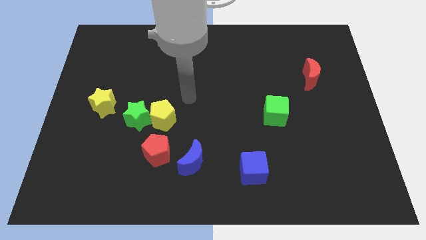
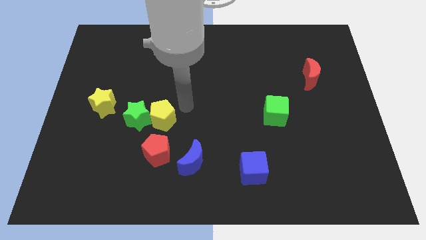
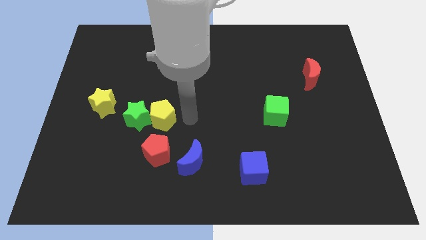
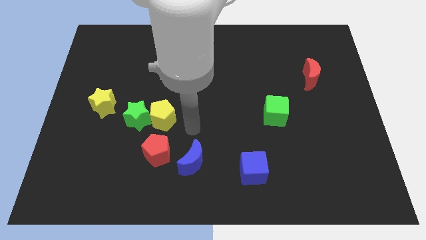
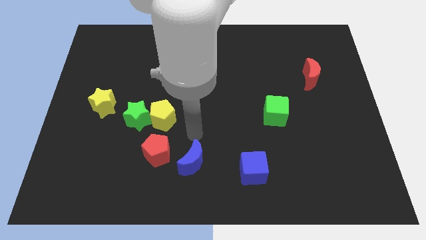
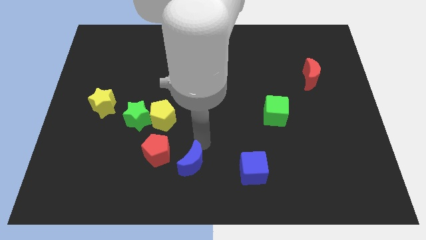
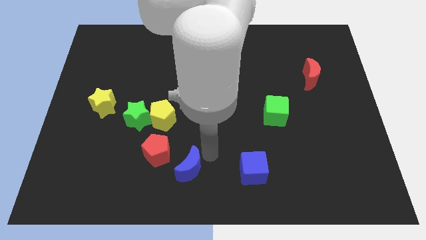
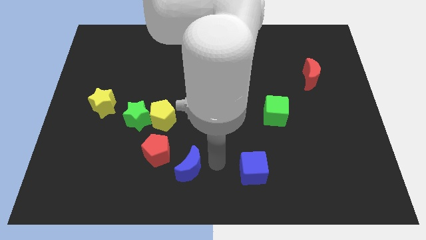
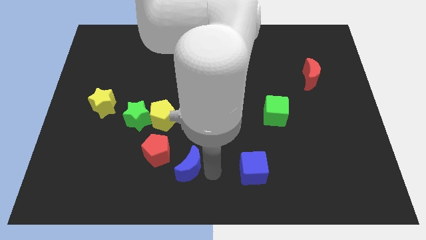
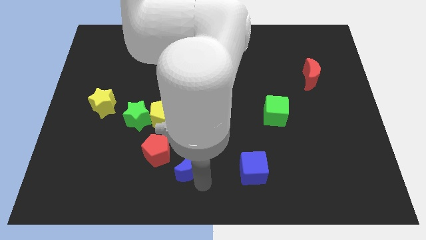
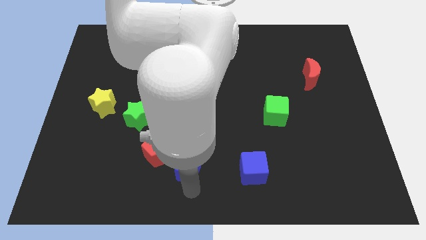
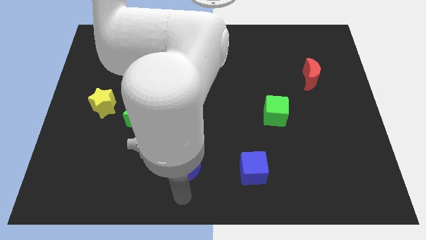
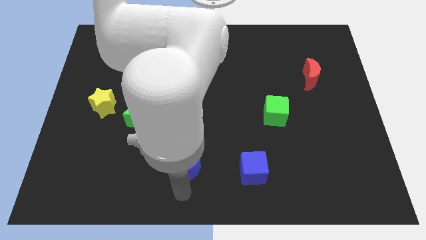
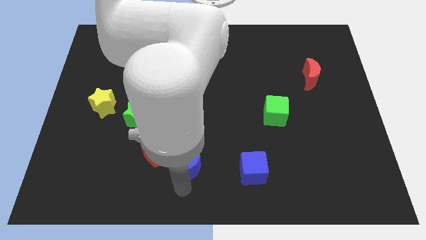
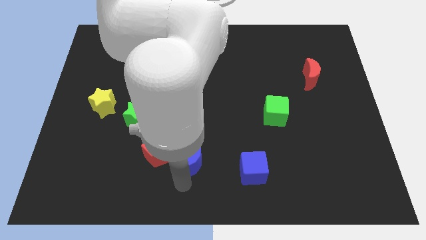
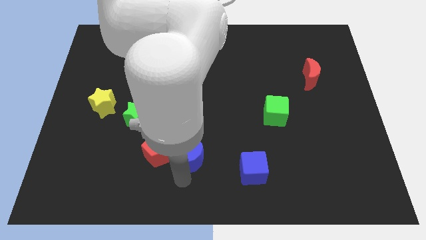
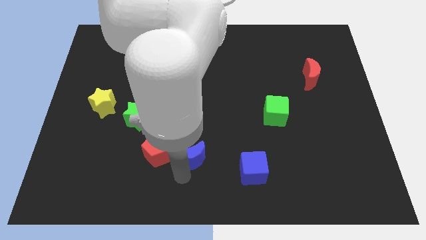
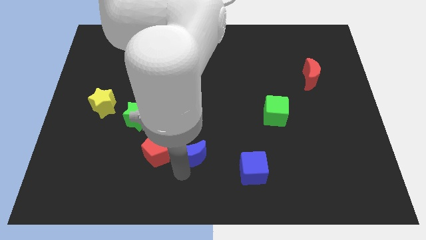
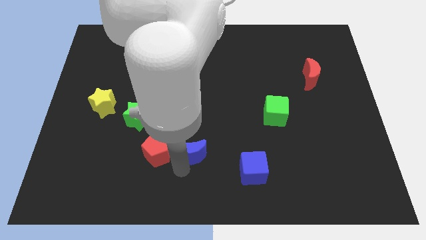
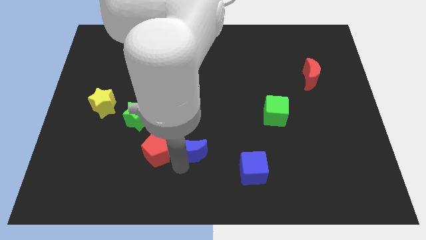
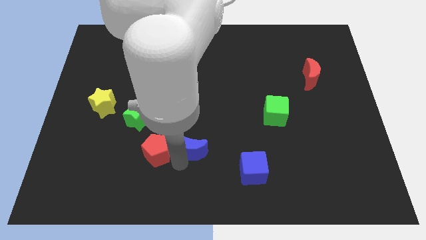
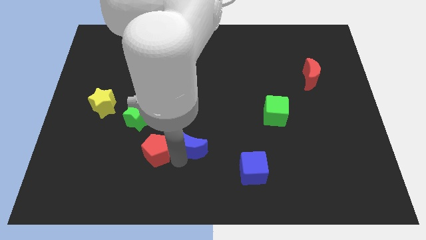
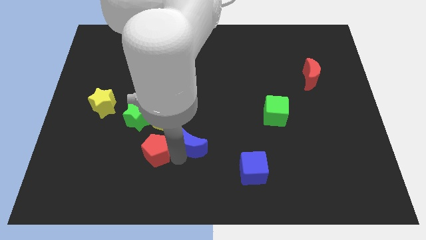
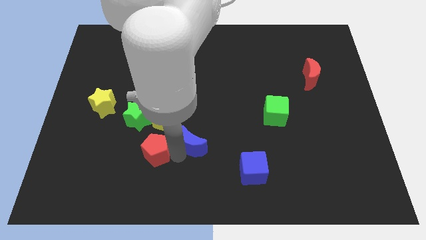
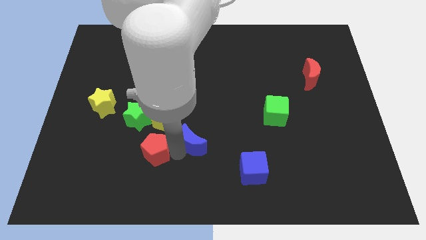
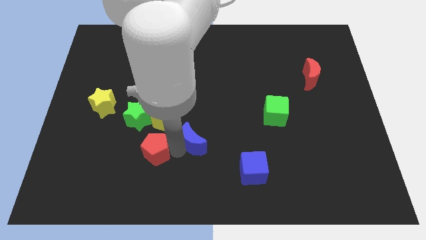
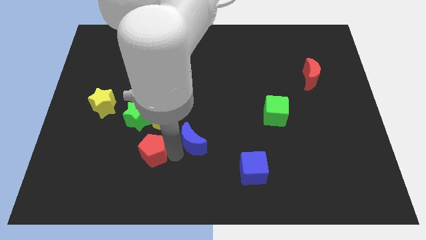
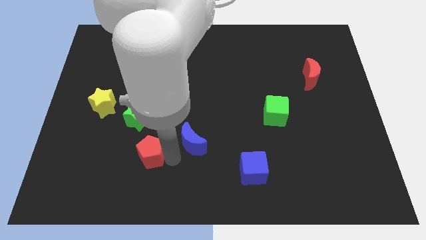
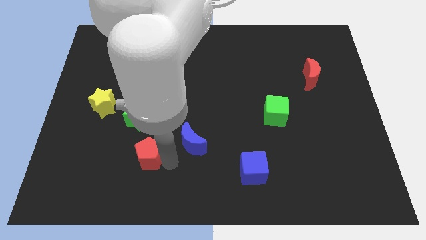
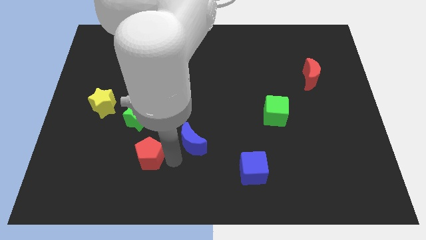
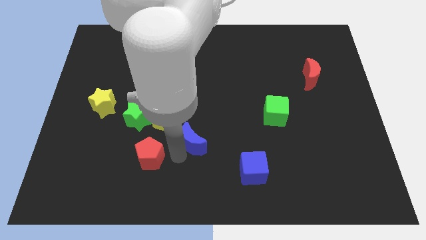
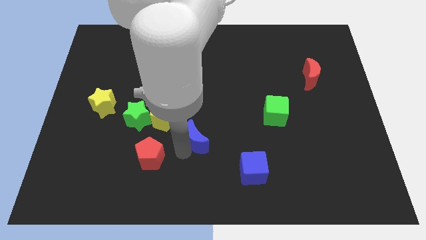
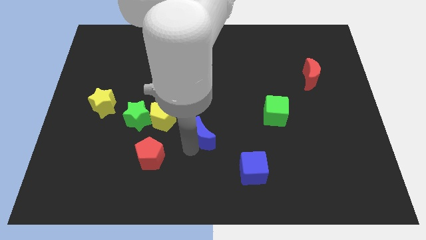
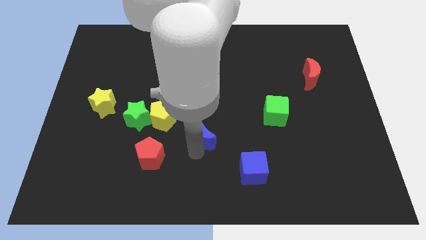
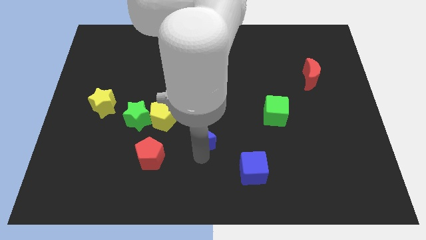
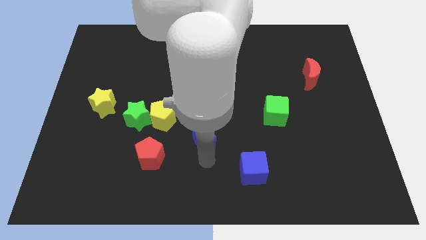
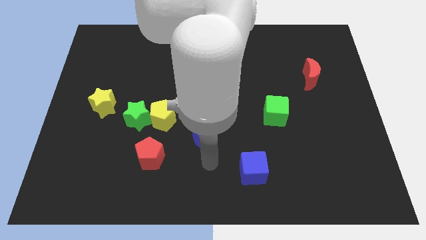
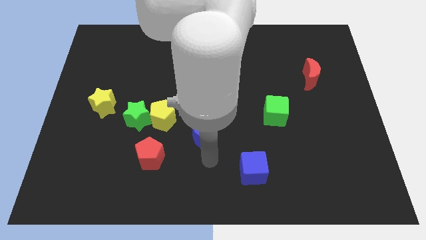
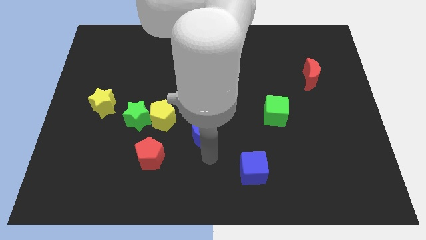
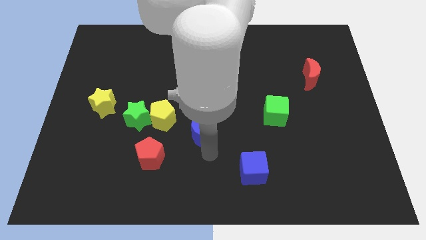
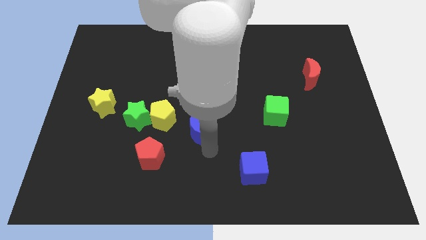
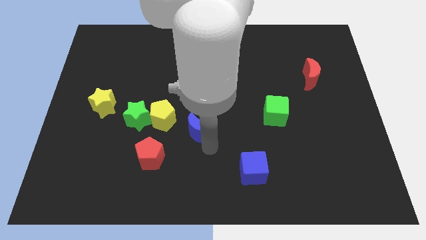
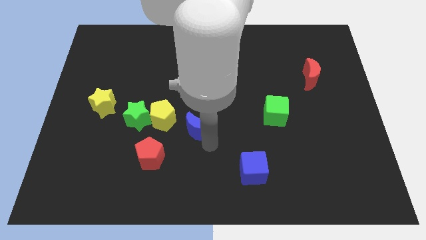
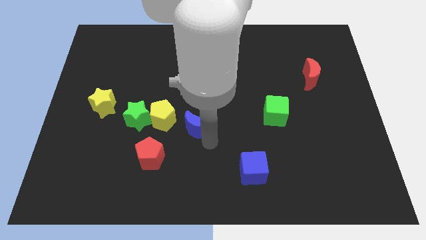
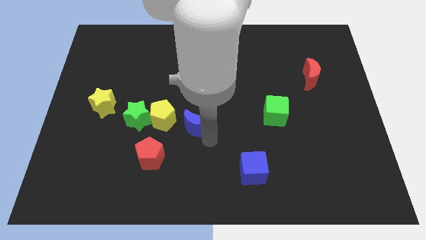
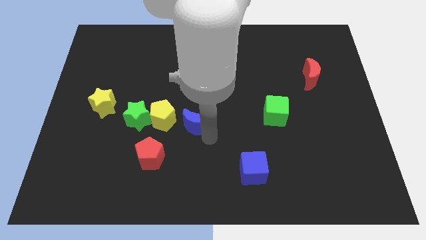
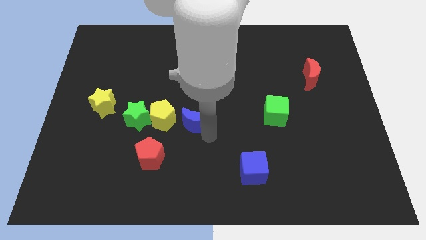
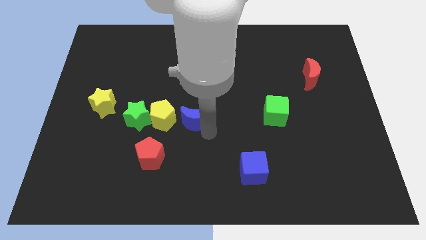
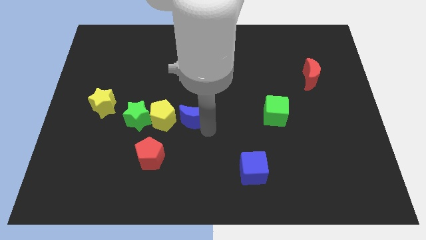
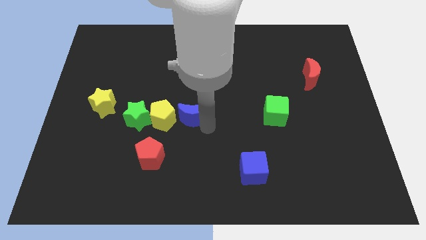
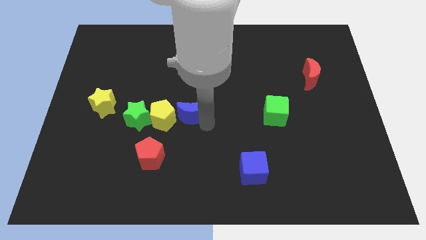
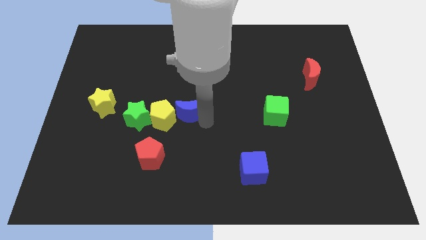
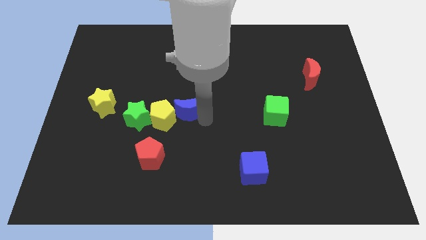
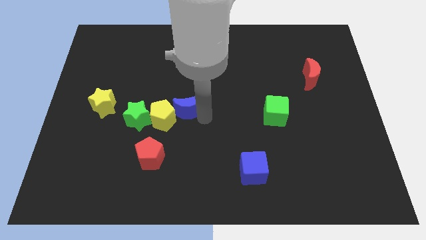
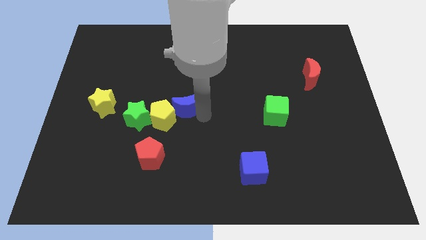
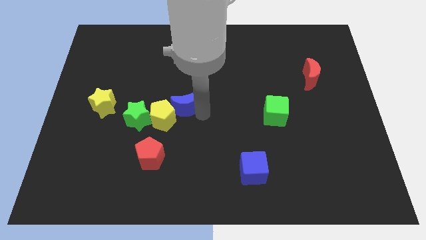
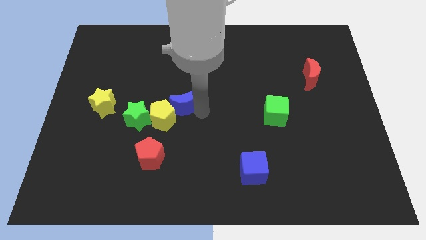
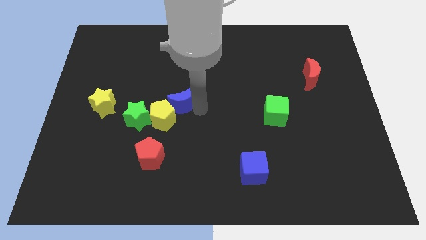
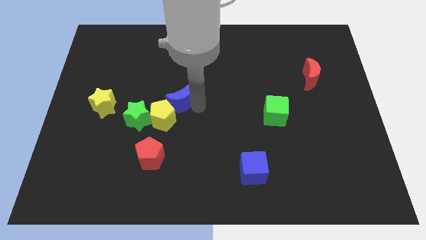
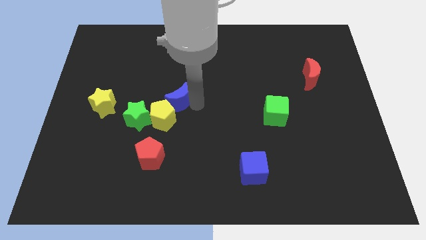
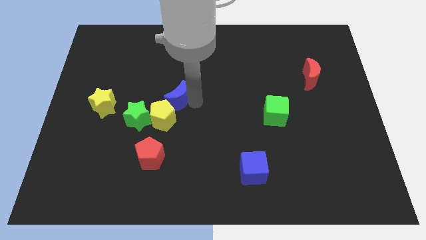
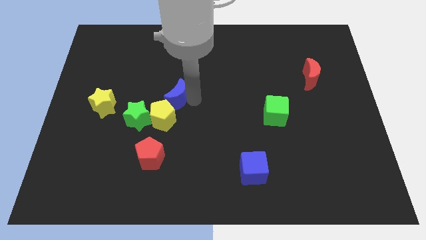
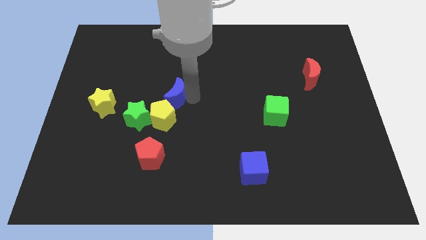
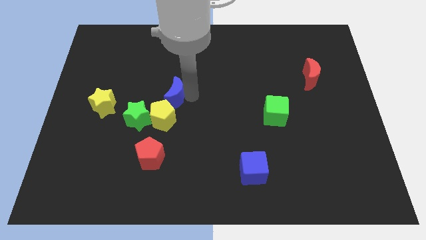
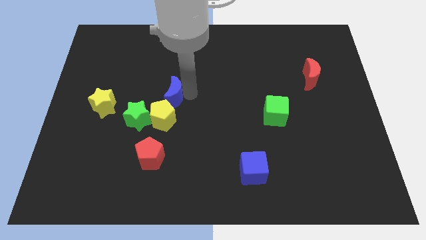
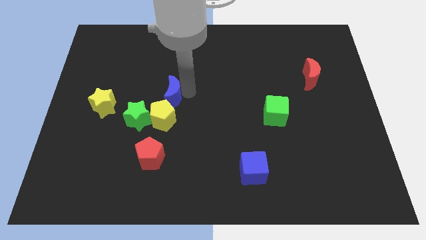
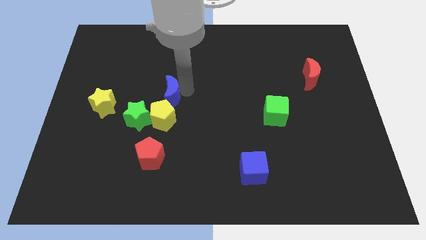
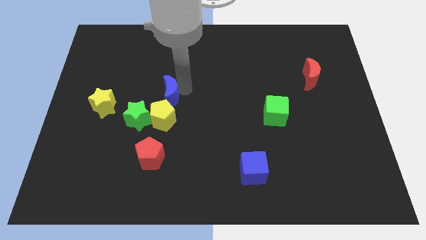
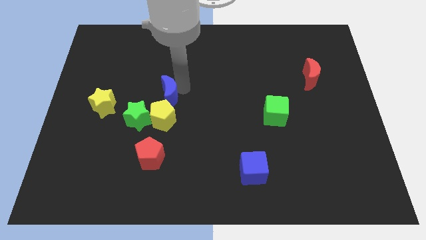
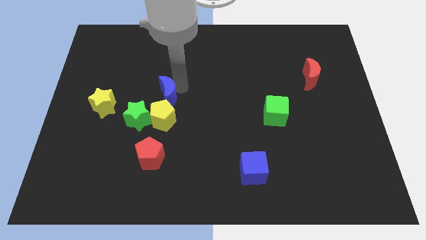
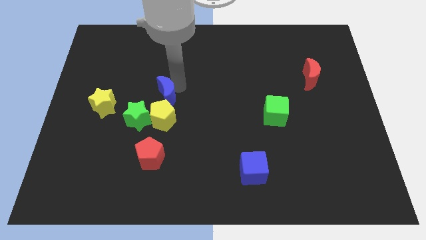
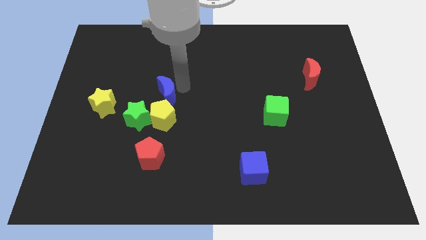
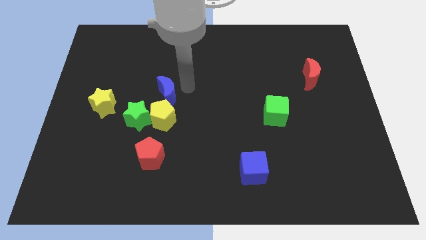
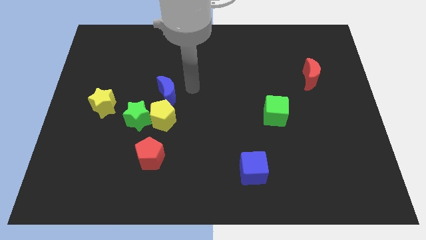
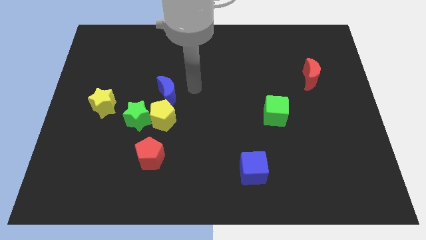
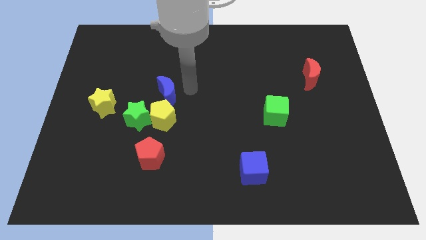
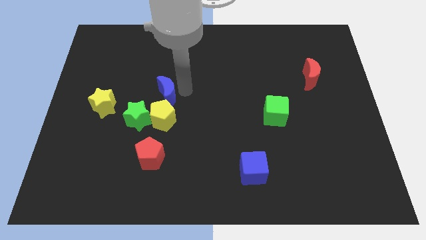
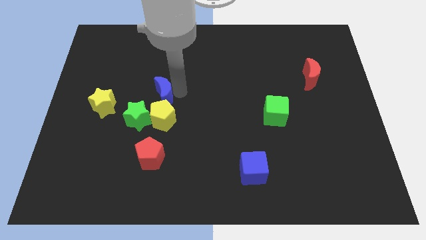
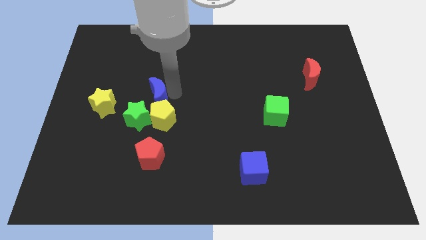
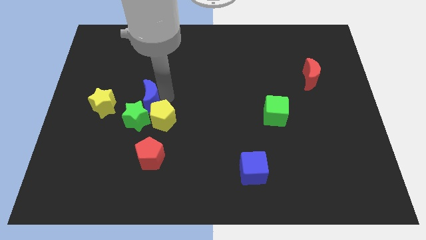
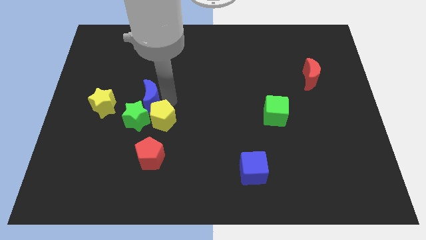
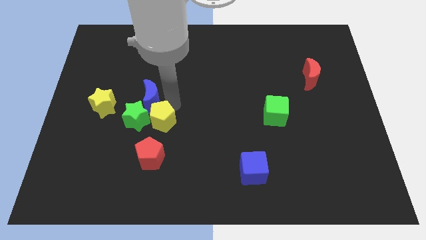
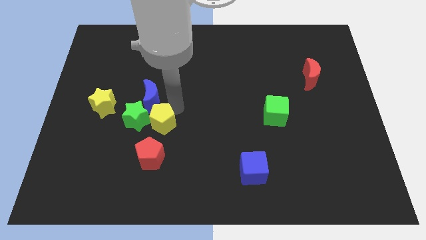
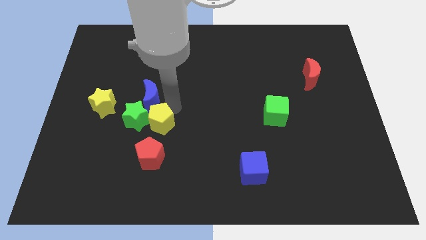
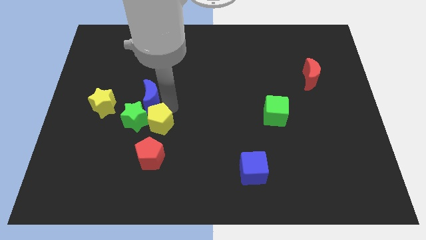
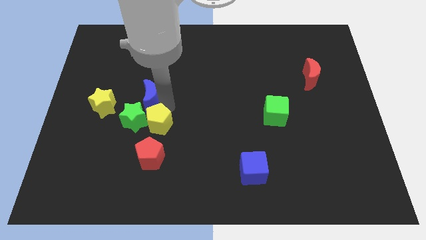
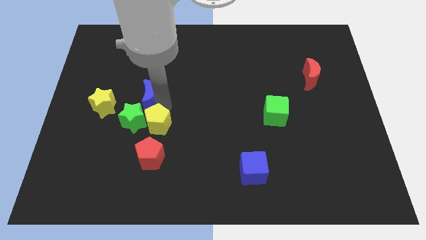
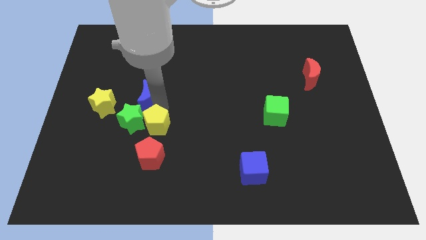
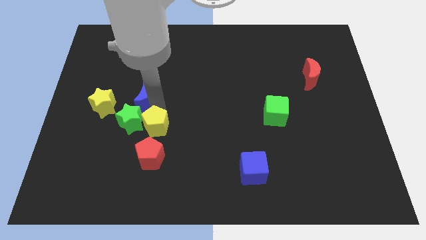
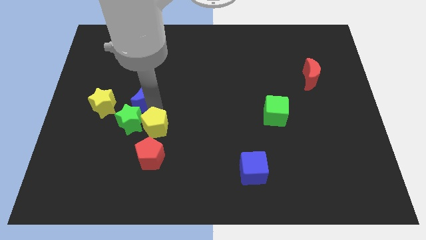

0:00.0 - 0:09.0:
move the blue moon upwards and to the left diagonally
